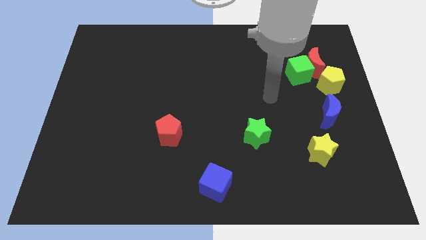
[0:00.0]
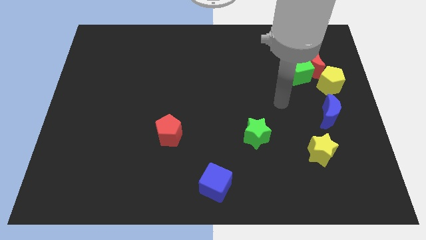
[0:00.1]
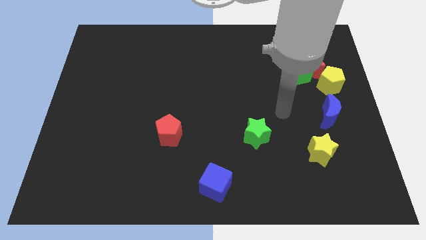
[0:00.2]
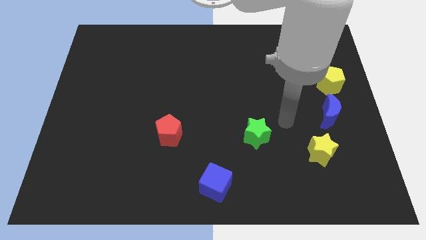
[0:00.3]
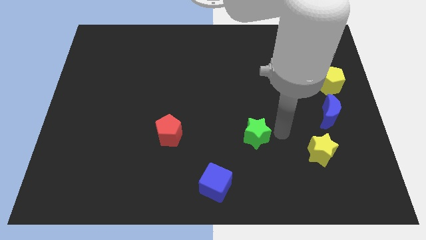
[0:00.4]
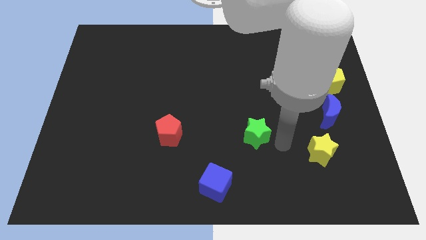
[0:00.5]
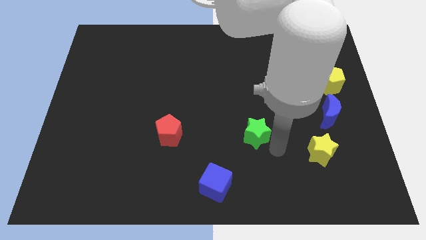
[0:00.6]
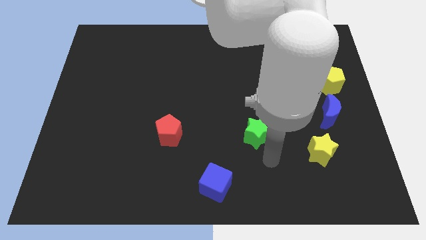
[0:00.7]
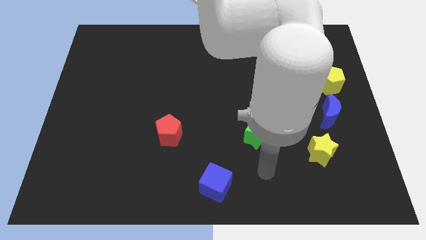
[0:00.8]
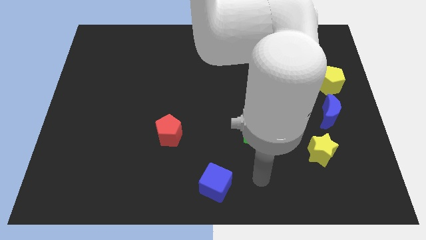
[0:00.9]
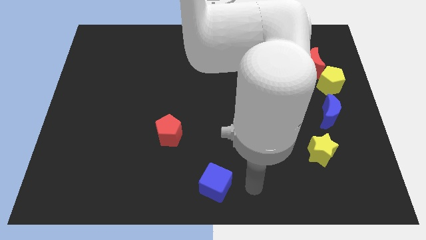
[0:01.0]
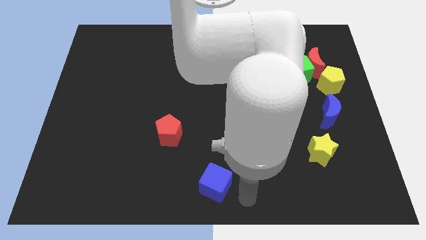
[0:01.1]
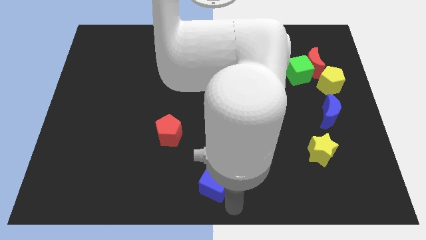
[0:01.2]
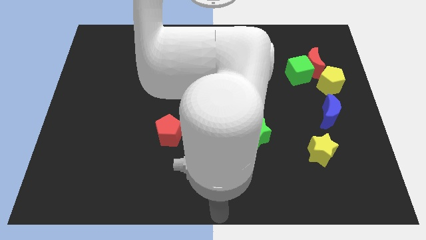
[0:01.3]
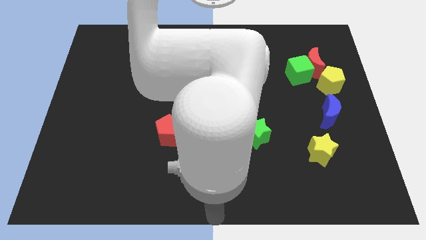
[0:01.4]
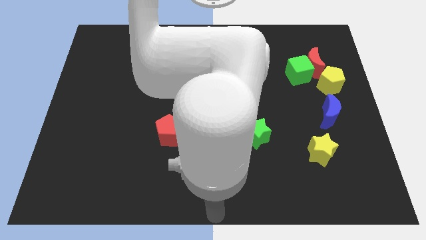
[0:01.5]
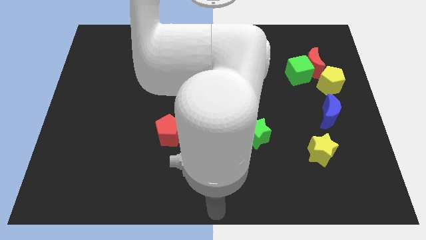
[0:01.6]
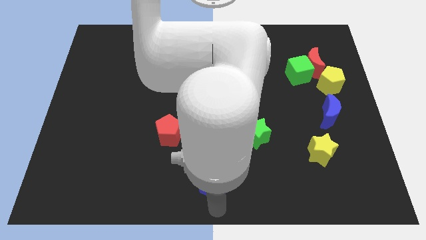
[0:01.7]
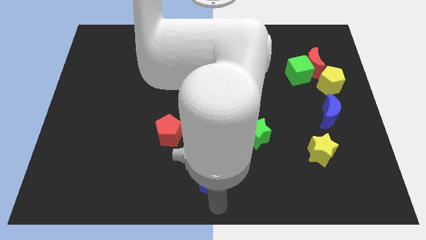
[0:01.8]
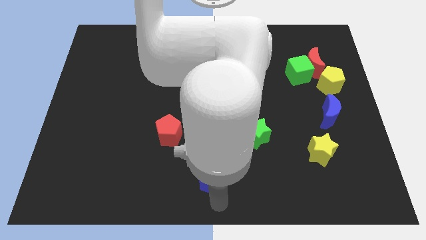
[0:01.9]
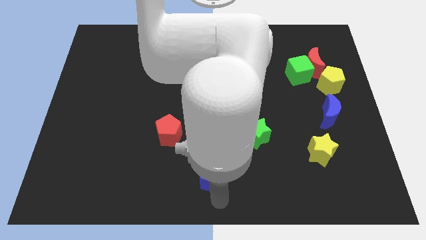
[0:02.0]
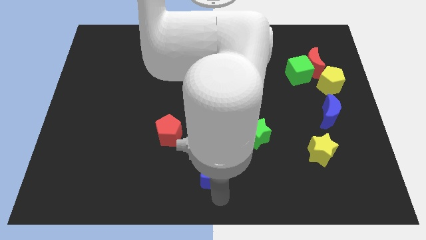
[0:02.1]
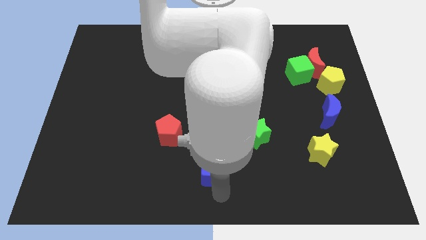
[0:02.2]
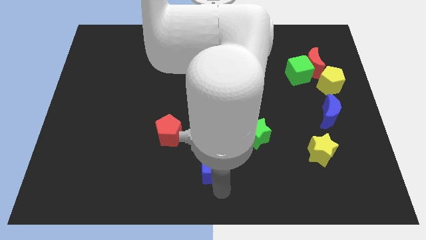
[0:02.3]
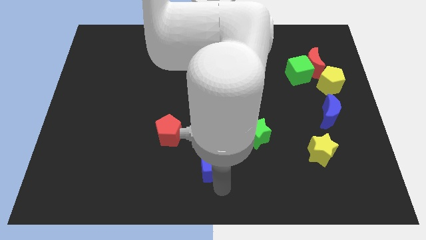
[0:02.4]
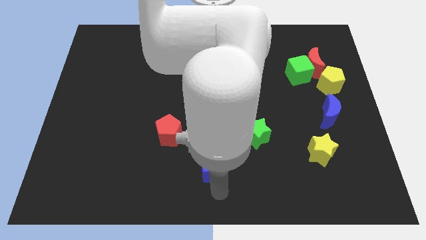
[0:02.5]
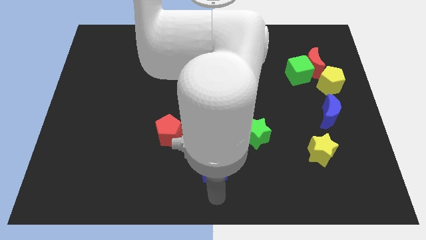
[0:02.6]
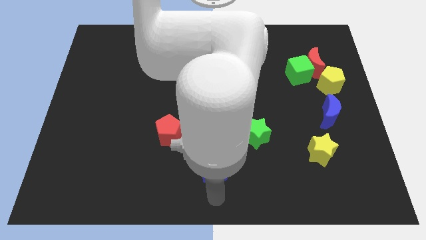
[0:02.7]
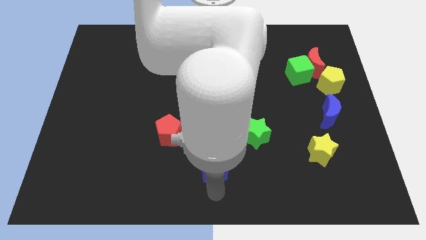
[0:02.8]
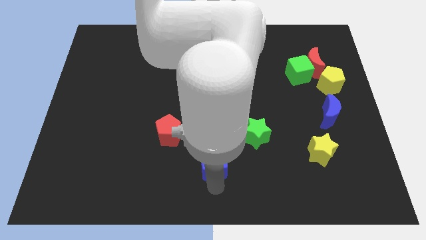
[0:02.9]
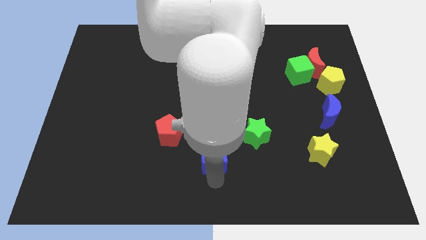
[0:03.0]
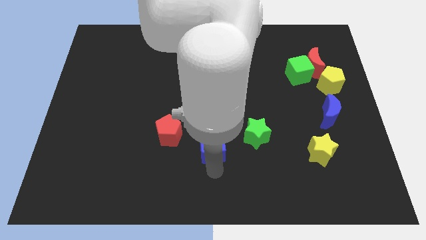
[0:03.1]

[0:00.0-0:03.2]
push the blue cube up slightly

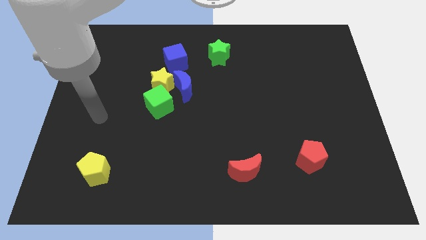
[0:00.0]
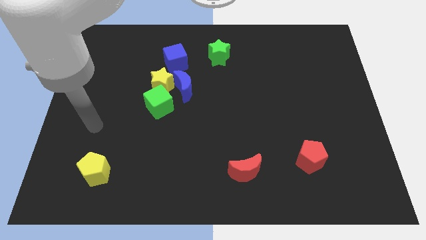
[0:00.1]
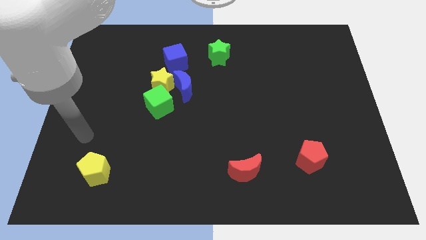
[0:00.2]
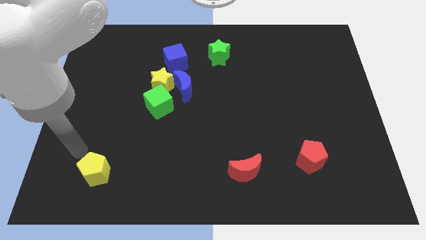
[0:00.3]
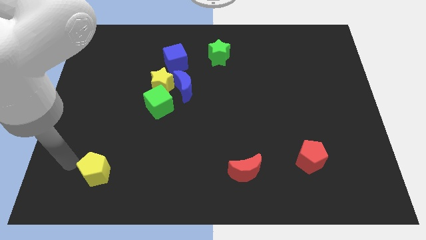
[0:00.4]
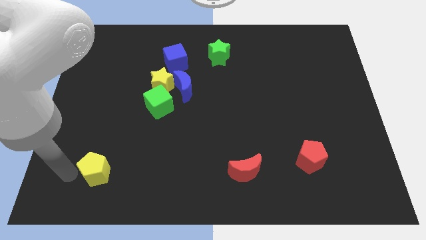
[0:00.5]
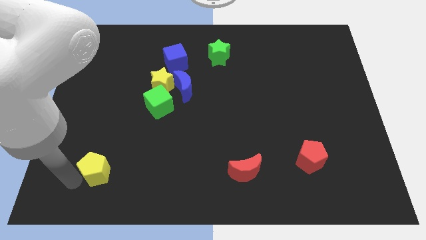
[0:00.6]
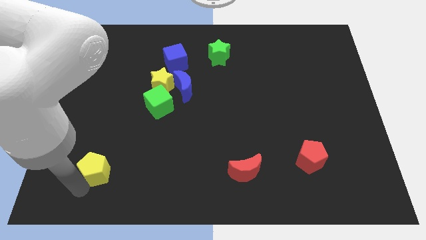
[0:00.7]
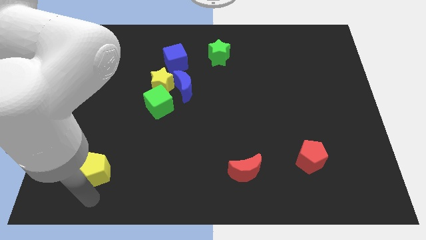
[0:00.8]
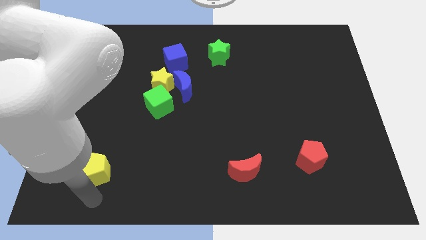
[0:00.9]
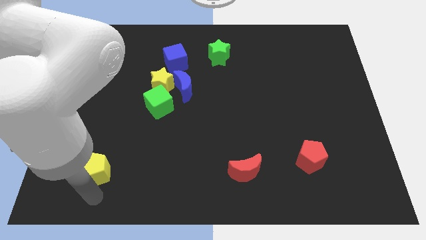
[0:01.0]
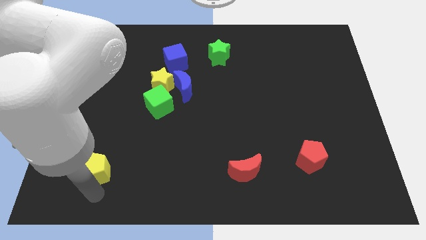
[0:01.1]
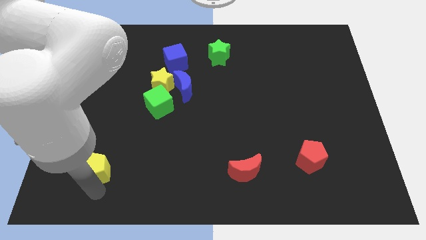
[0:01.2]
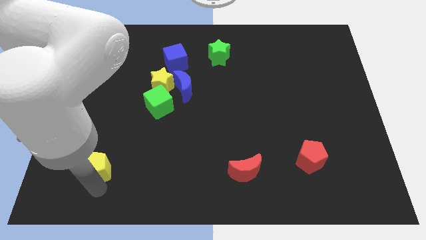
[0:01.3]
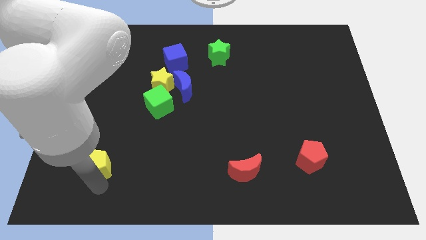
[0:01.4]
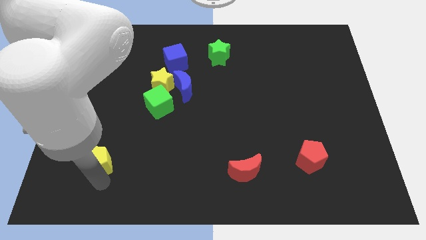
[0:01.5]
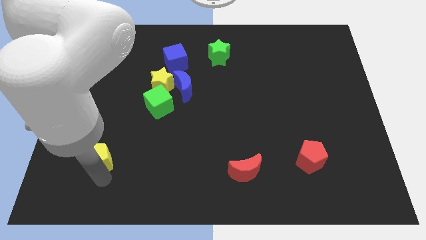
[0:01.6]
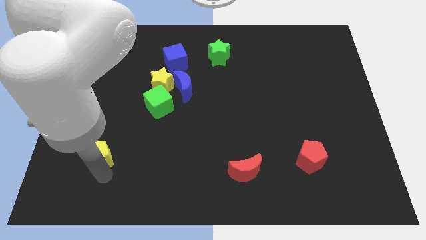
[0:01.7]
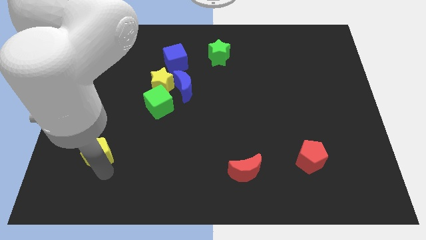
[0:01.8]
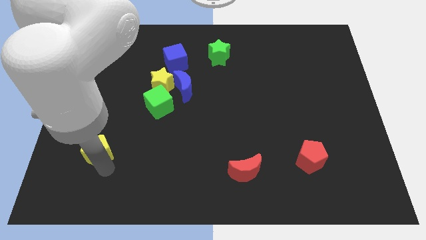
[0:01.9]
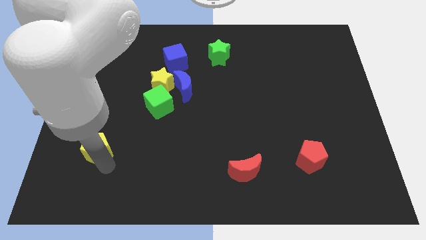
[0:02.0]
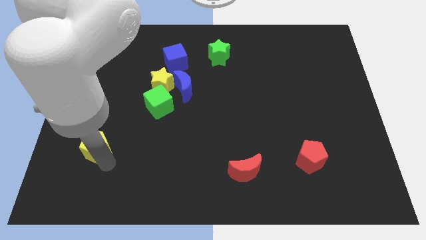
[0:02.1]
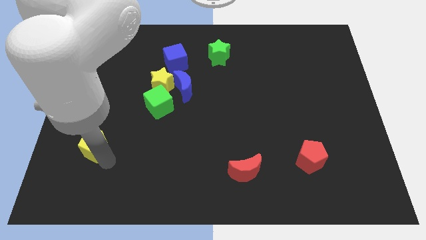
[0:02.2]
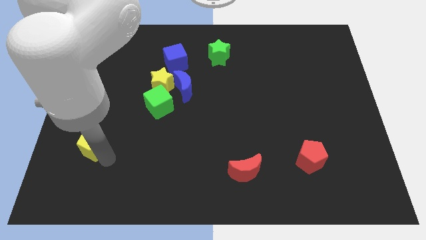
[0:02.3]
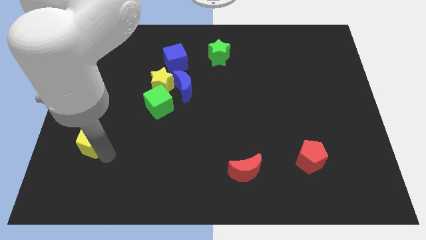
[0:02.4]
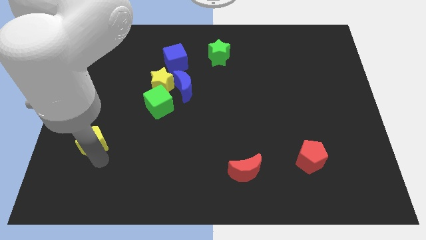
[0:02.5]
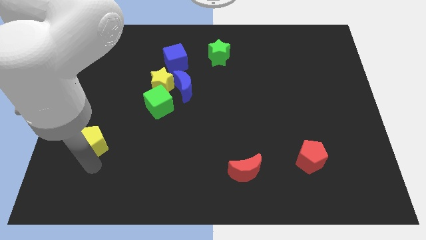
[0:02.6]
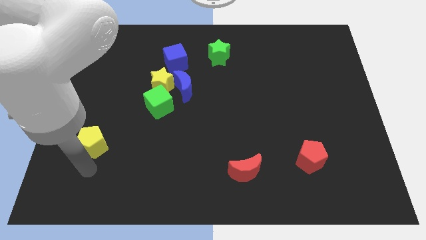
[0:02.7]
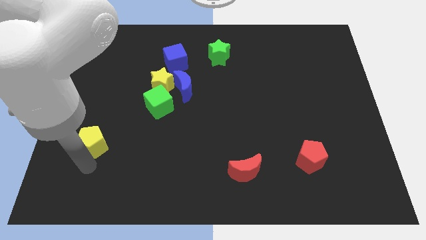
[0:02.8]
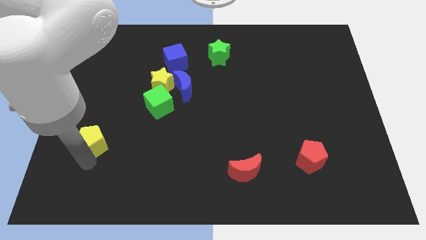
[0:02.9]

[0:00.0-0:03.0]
push the yellow pentagon slightly upwards

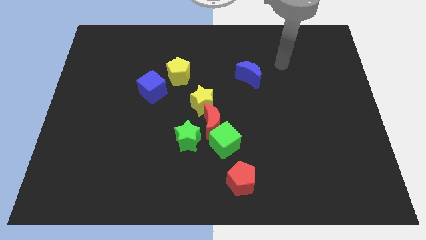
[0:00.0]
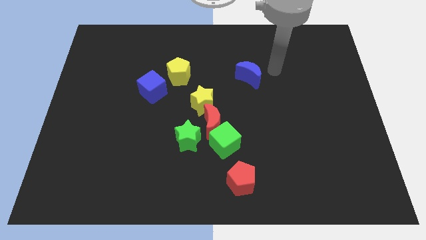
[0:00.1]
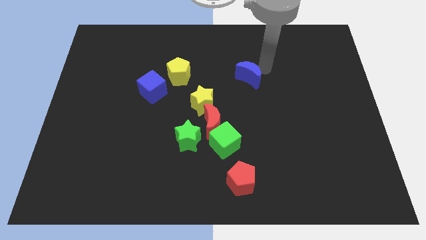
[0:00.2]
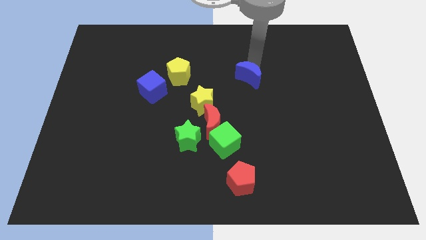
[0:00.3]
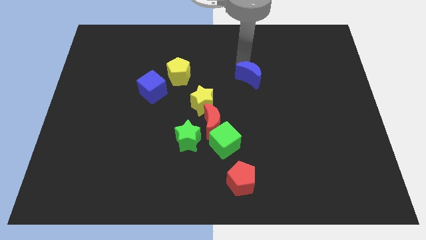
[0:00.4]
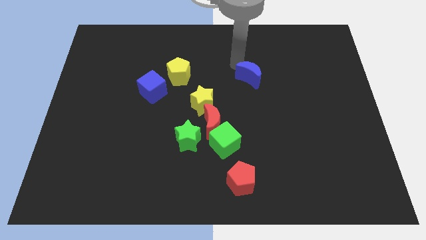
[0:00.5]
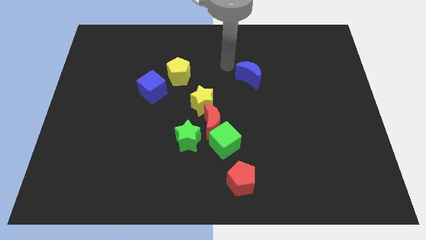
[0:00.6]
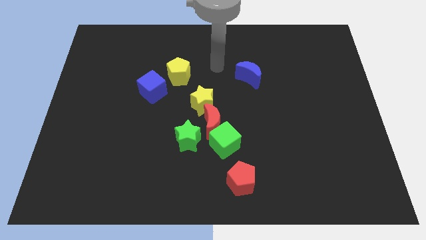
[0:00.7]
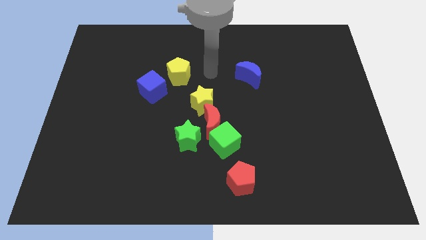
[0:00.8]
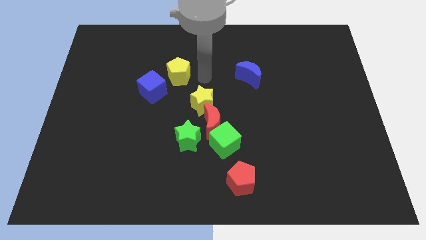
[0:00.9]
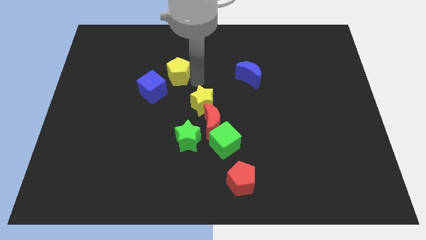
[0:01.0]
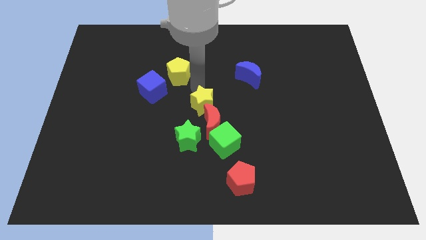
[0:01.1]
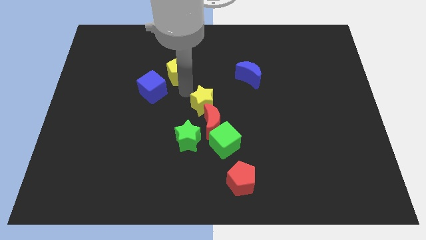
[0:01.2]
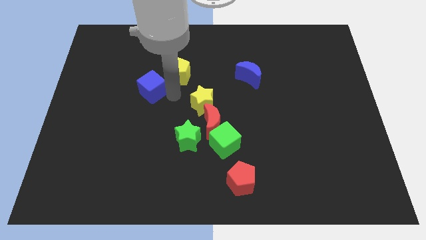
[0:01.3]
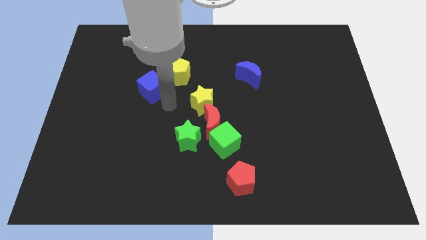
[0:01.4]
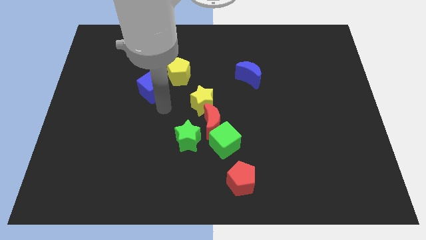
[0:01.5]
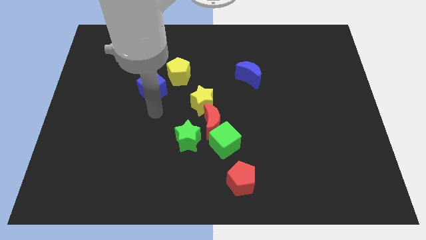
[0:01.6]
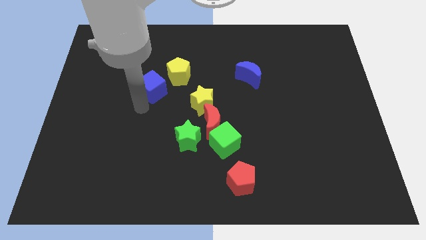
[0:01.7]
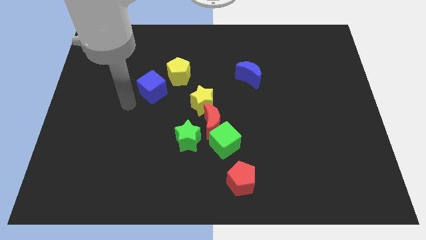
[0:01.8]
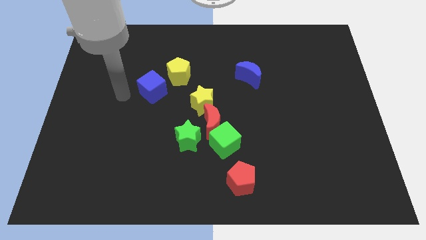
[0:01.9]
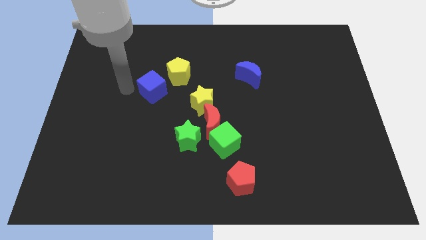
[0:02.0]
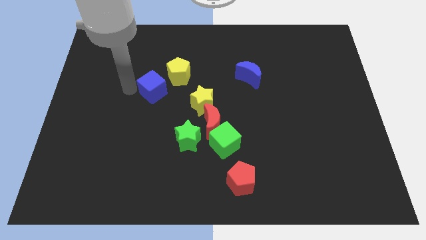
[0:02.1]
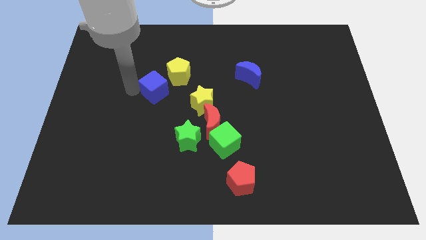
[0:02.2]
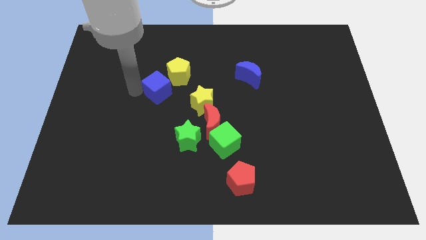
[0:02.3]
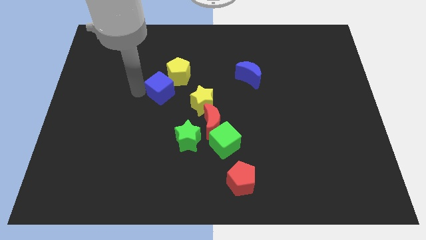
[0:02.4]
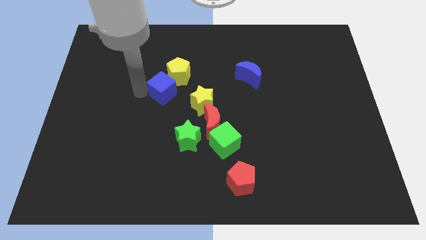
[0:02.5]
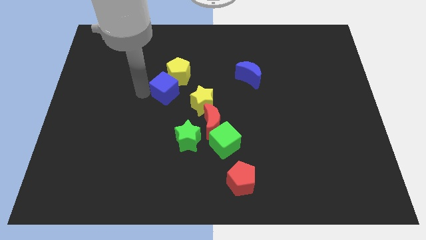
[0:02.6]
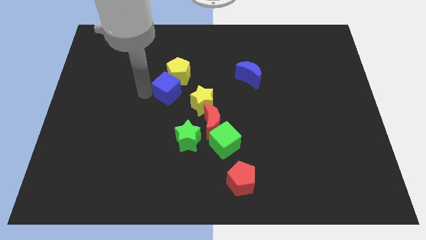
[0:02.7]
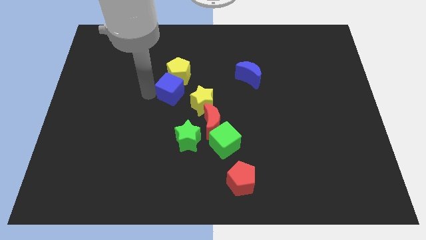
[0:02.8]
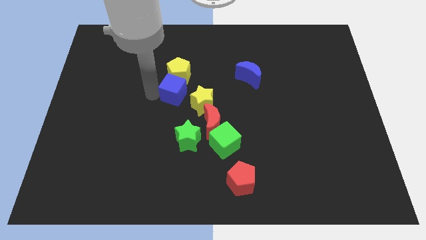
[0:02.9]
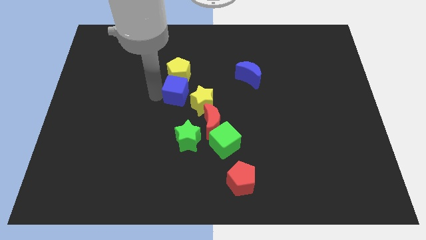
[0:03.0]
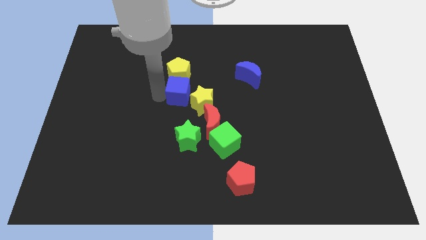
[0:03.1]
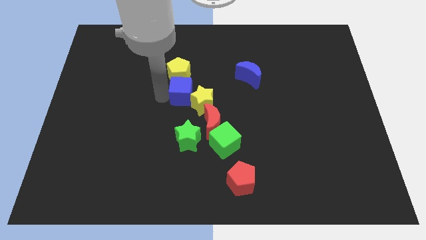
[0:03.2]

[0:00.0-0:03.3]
slightly push the blue cube right
